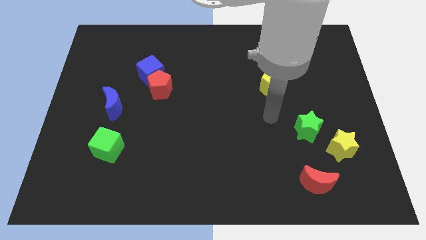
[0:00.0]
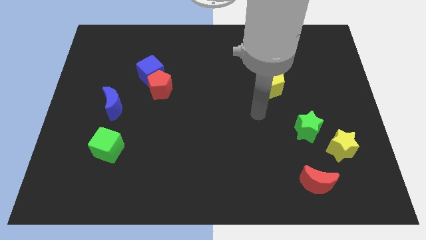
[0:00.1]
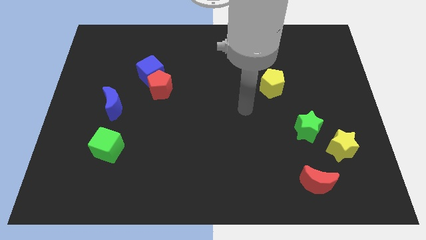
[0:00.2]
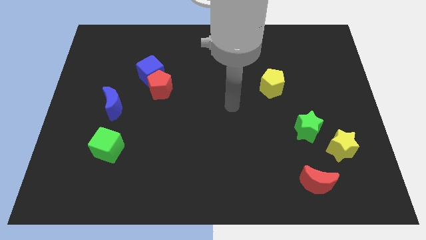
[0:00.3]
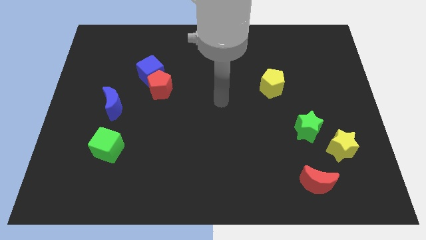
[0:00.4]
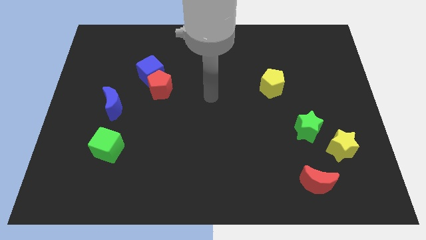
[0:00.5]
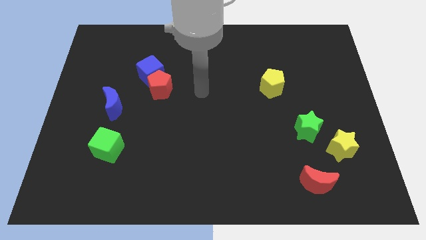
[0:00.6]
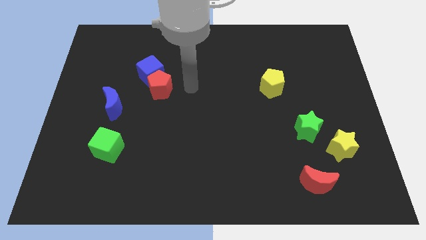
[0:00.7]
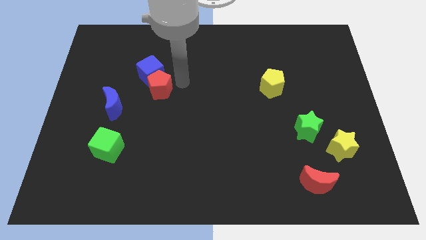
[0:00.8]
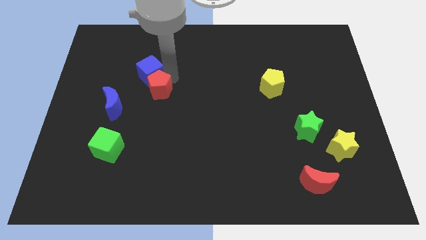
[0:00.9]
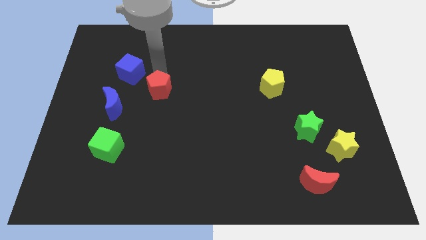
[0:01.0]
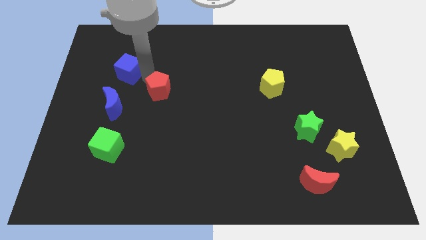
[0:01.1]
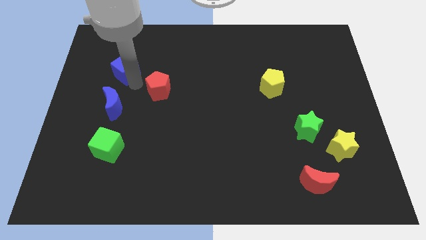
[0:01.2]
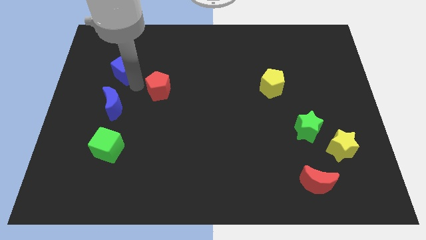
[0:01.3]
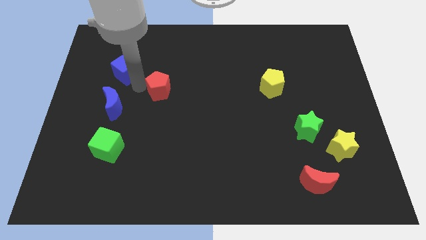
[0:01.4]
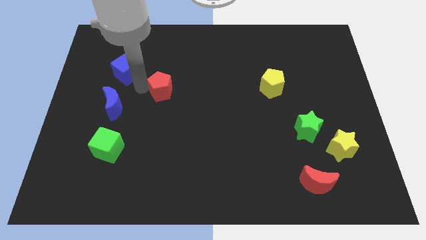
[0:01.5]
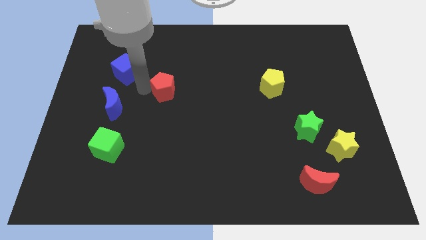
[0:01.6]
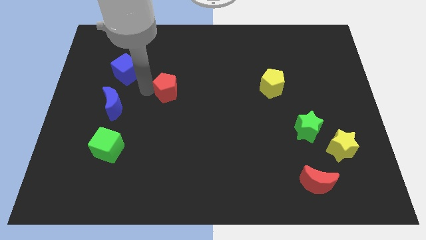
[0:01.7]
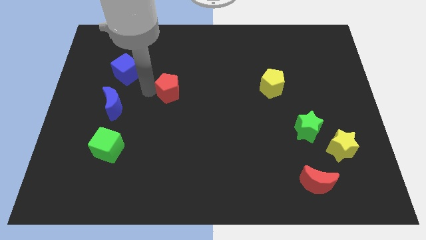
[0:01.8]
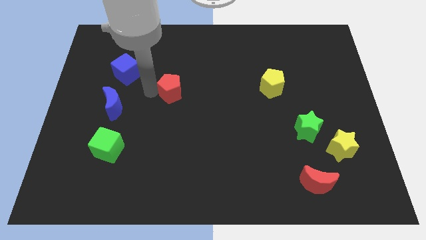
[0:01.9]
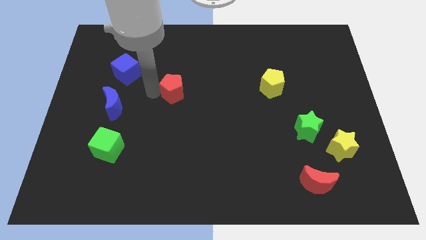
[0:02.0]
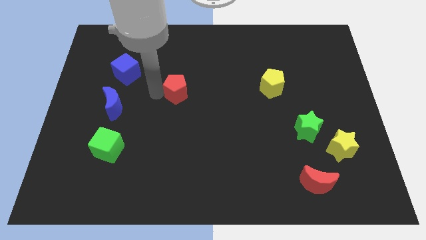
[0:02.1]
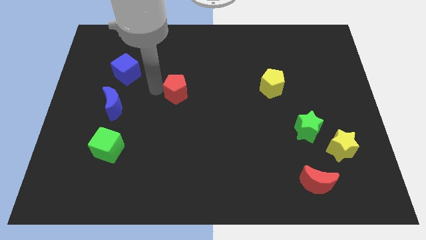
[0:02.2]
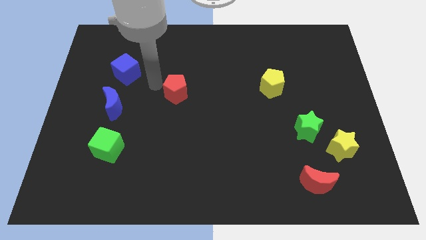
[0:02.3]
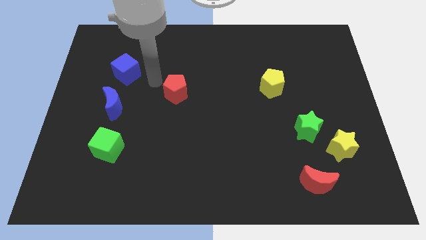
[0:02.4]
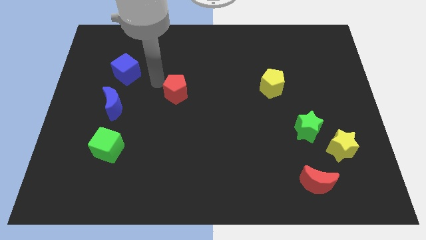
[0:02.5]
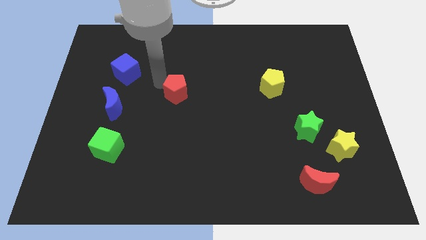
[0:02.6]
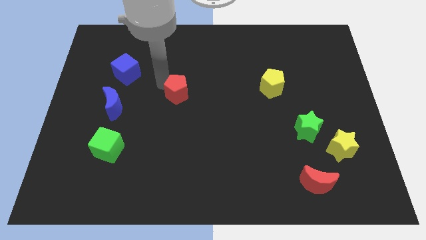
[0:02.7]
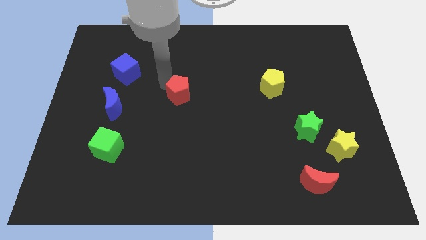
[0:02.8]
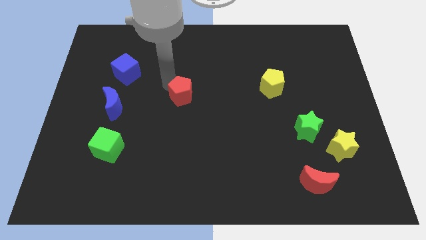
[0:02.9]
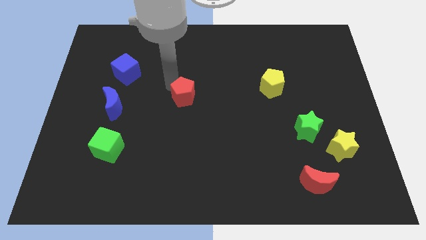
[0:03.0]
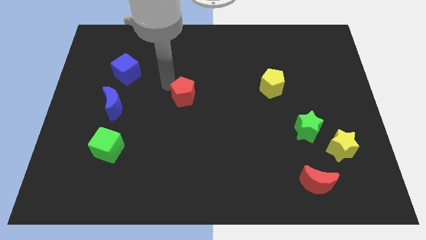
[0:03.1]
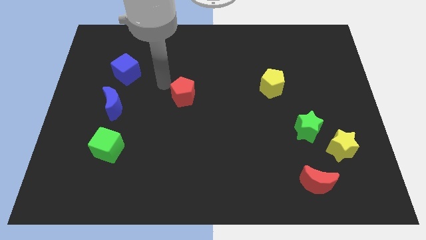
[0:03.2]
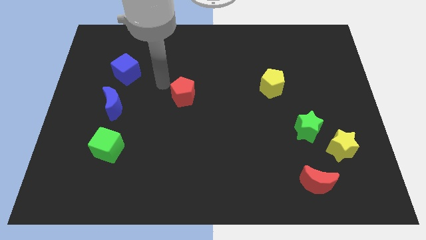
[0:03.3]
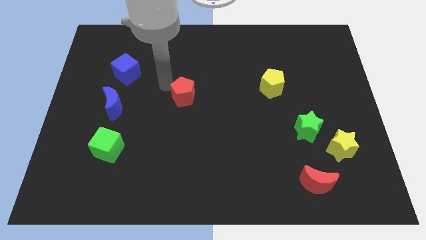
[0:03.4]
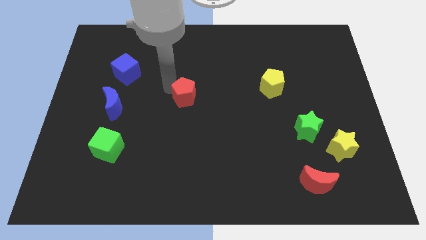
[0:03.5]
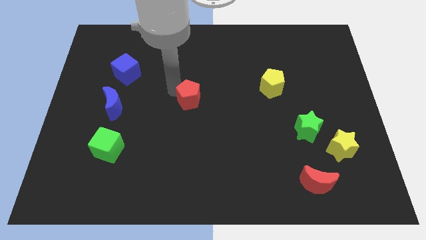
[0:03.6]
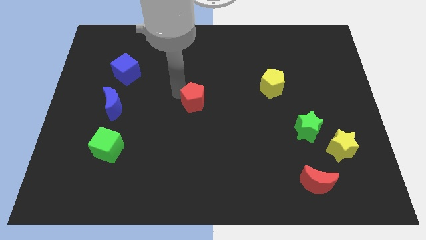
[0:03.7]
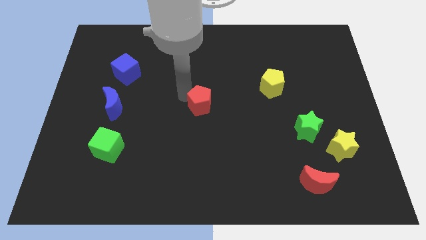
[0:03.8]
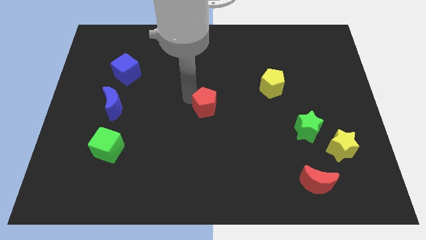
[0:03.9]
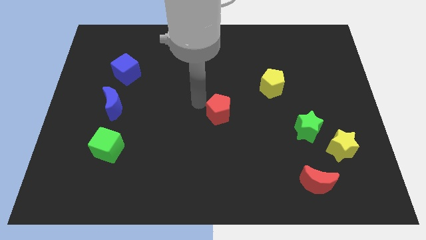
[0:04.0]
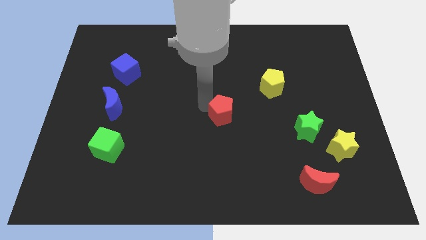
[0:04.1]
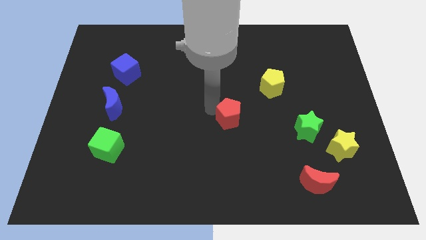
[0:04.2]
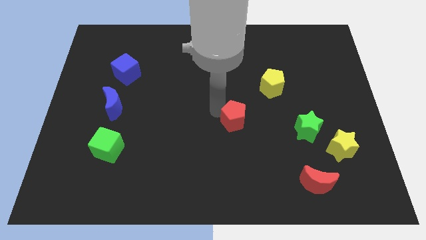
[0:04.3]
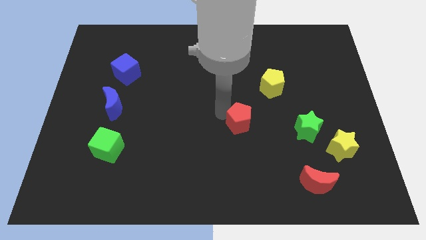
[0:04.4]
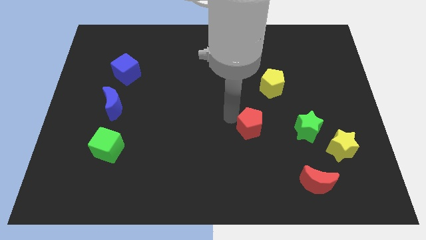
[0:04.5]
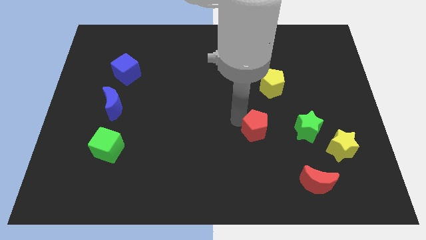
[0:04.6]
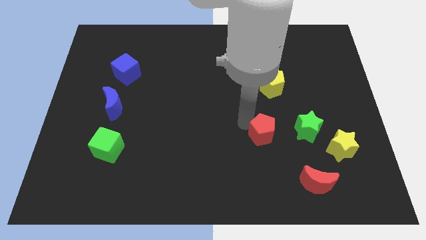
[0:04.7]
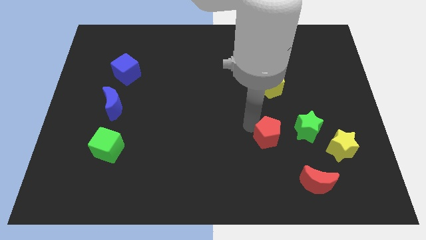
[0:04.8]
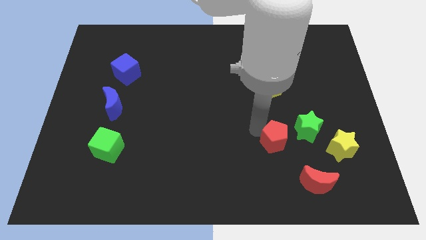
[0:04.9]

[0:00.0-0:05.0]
move the red pentagon to the left of the yellow star

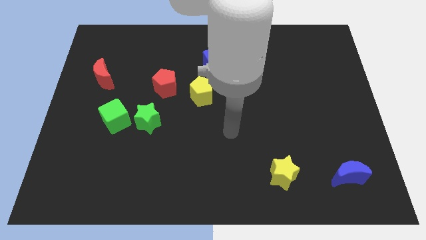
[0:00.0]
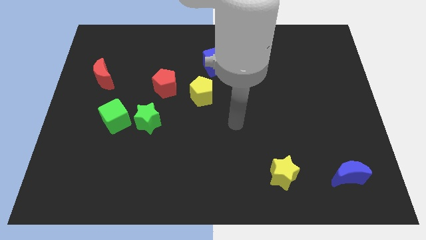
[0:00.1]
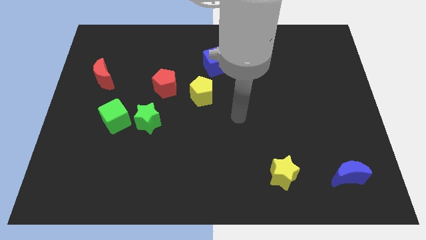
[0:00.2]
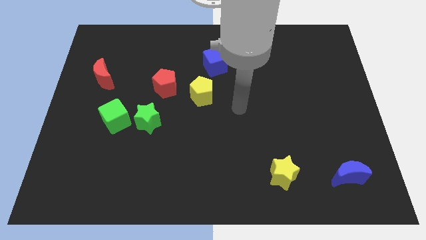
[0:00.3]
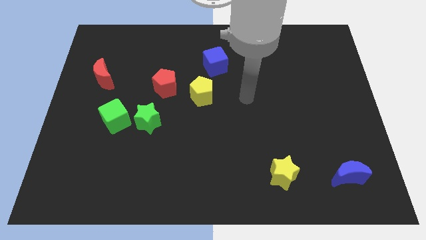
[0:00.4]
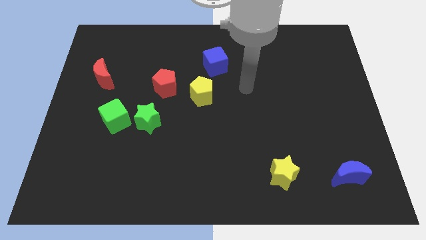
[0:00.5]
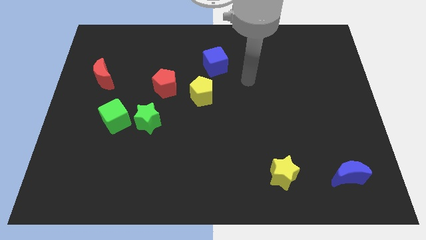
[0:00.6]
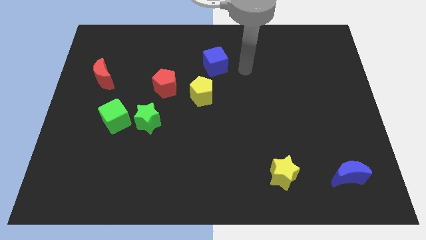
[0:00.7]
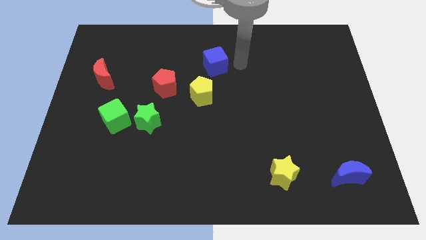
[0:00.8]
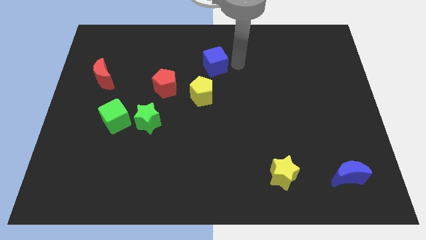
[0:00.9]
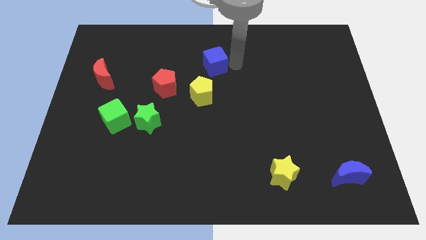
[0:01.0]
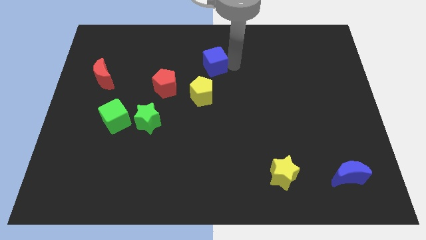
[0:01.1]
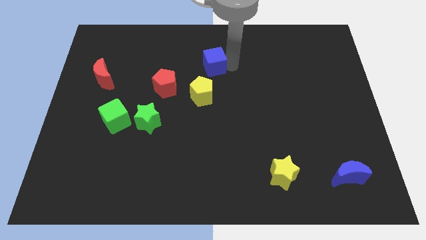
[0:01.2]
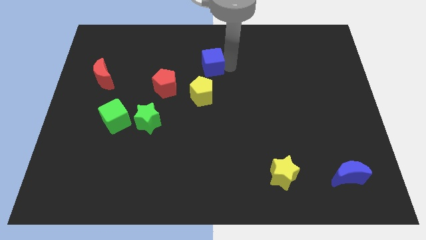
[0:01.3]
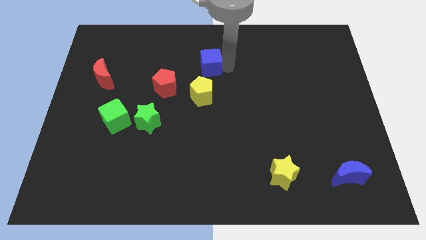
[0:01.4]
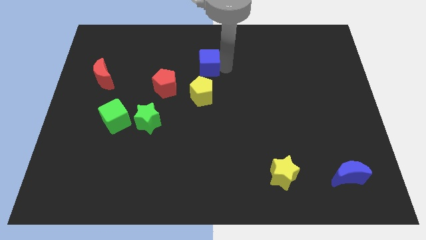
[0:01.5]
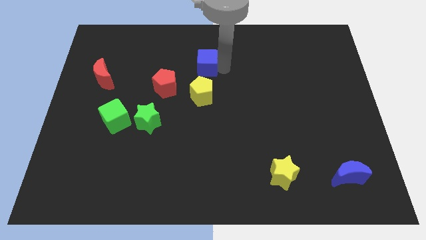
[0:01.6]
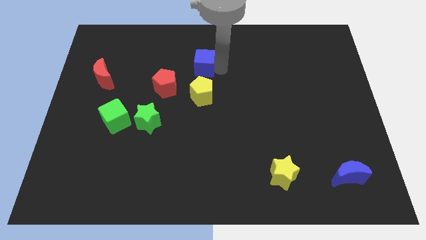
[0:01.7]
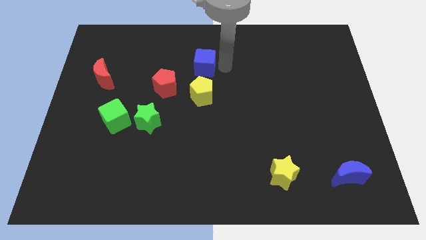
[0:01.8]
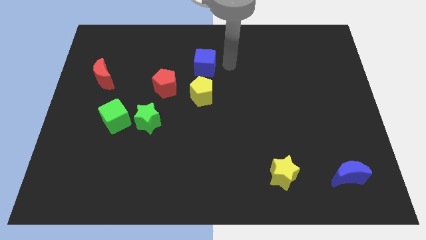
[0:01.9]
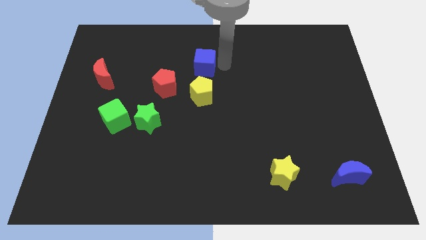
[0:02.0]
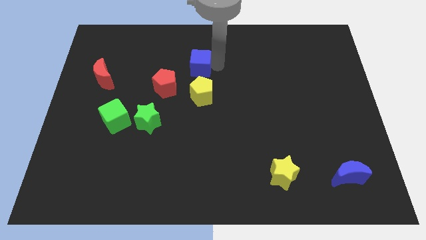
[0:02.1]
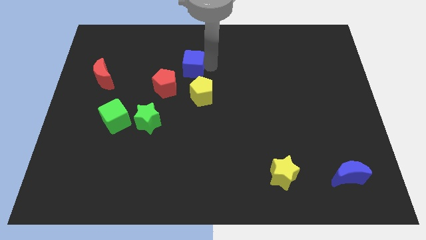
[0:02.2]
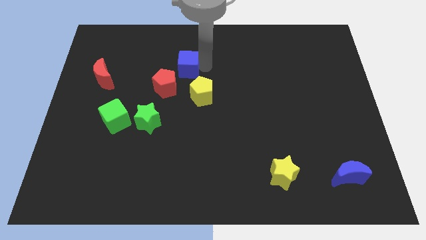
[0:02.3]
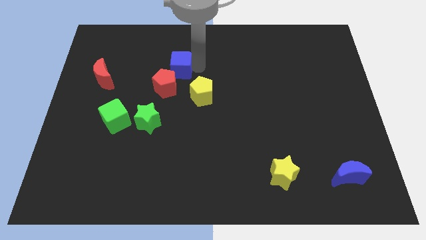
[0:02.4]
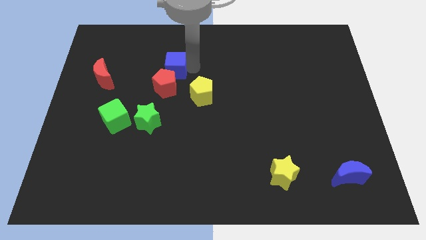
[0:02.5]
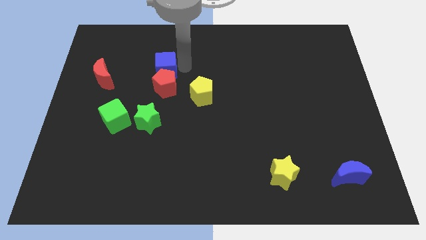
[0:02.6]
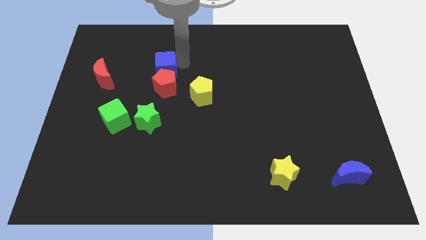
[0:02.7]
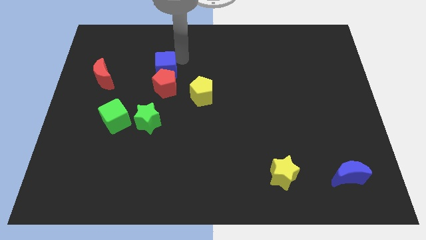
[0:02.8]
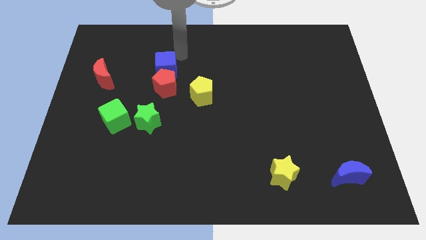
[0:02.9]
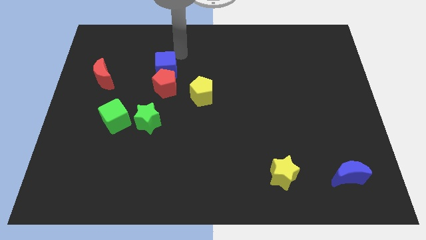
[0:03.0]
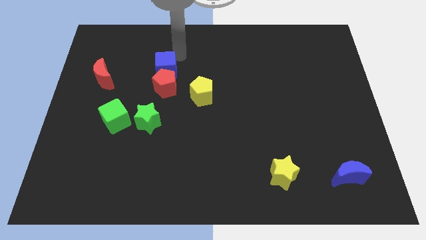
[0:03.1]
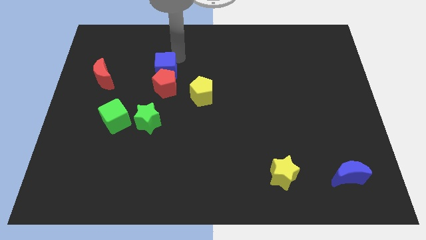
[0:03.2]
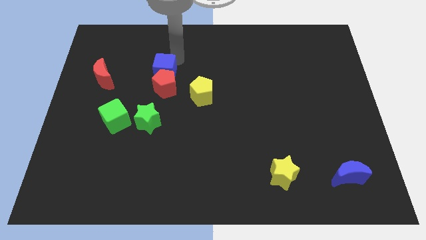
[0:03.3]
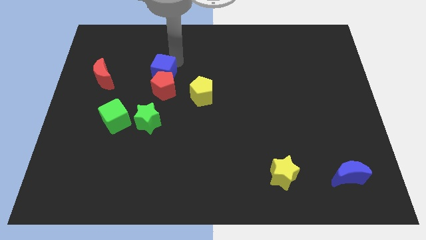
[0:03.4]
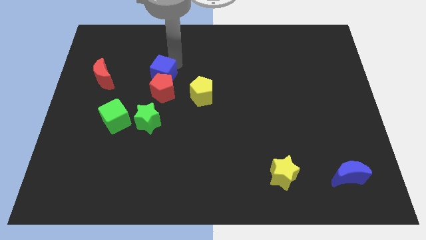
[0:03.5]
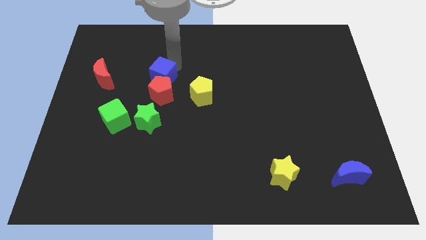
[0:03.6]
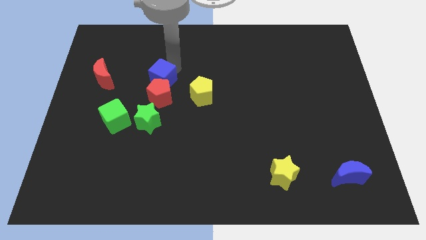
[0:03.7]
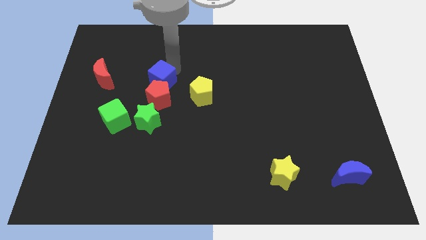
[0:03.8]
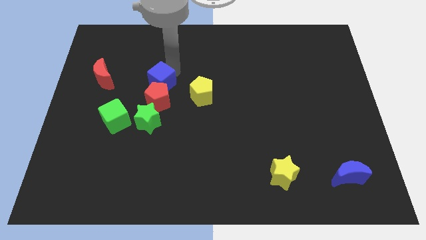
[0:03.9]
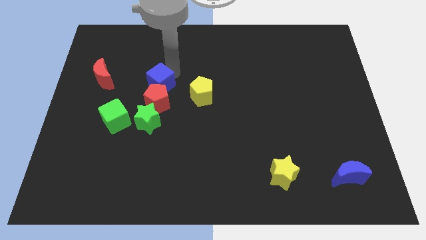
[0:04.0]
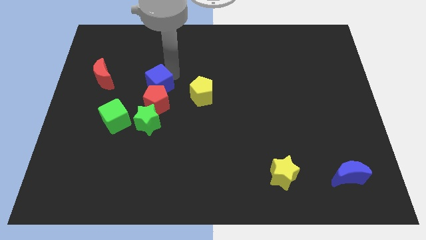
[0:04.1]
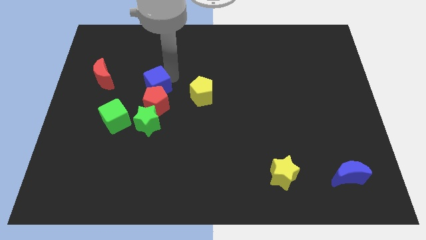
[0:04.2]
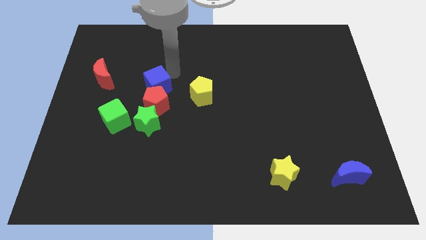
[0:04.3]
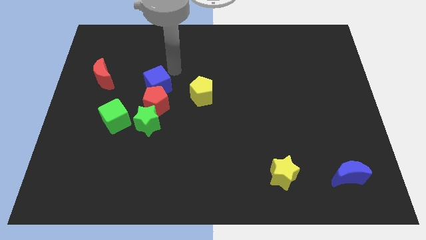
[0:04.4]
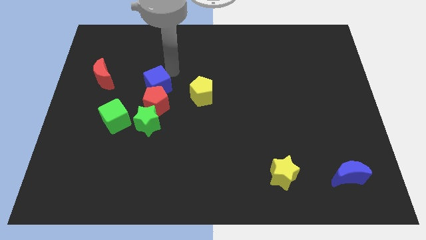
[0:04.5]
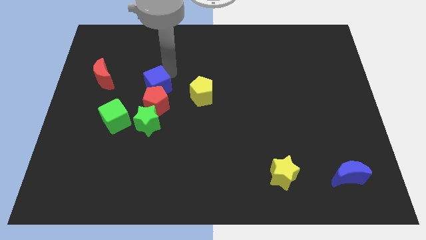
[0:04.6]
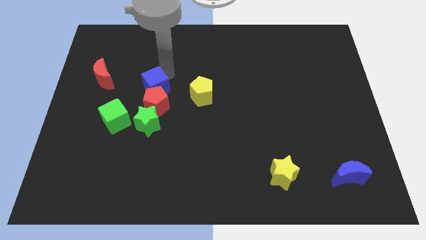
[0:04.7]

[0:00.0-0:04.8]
push the blue cube to the top right side of the green cube
